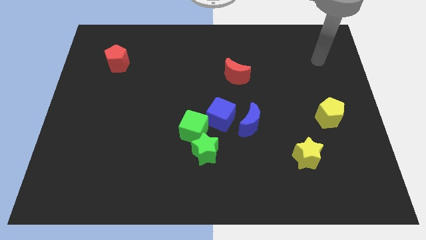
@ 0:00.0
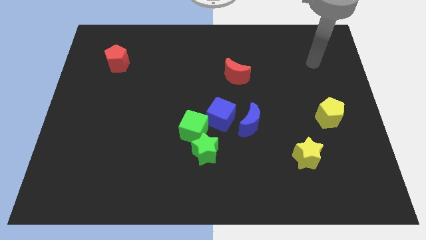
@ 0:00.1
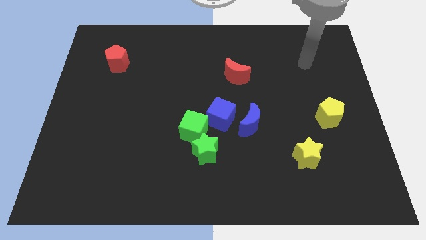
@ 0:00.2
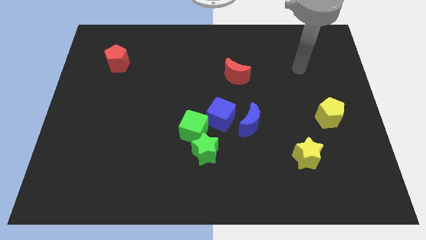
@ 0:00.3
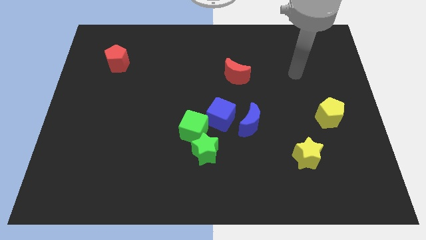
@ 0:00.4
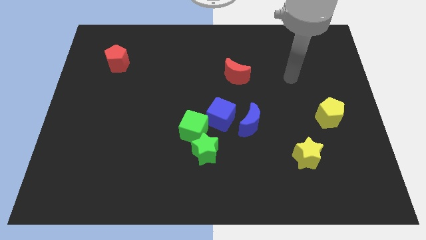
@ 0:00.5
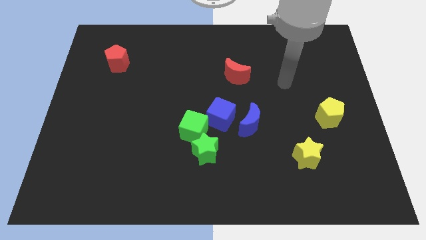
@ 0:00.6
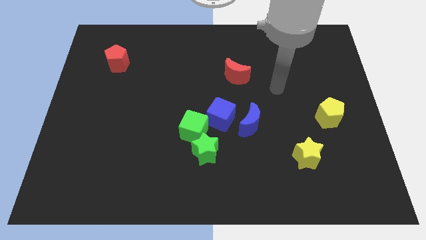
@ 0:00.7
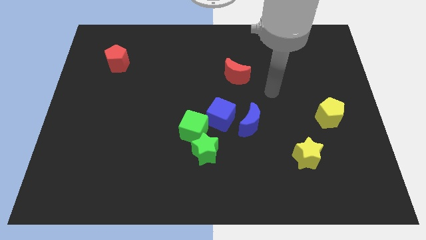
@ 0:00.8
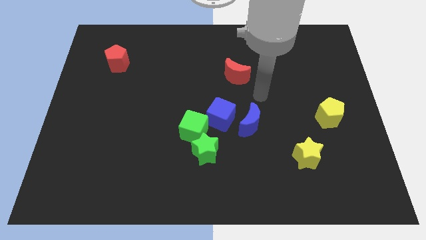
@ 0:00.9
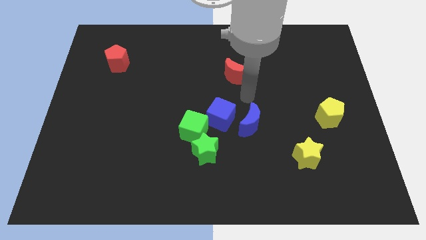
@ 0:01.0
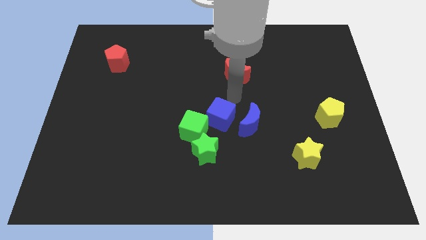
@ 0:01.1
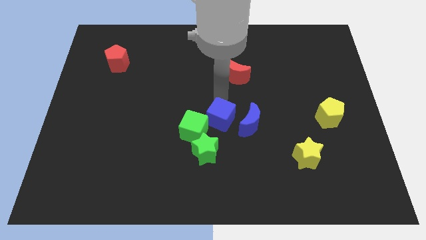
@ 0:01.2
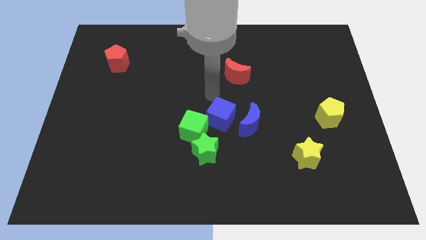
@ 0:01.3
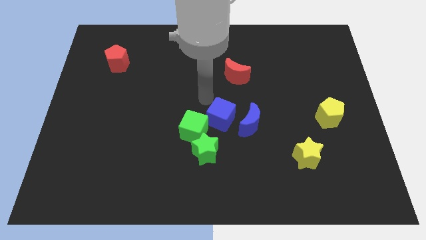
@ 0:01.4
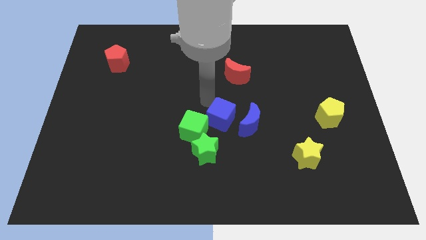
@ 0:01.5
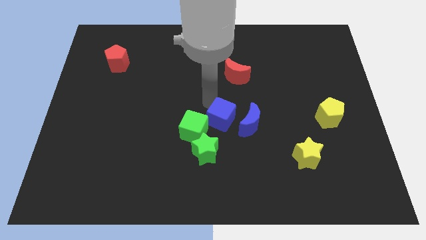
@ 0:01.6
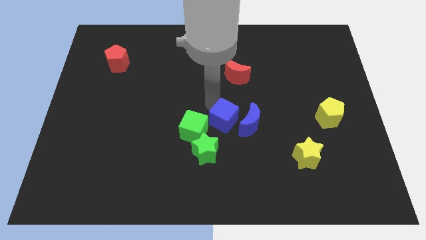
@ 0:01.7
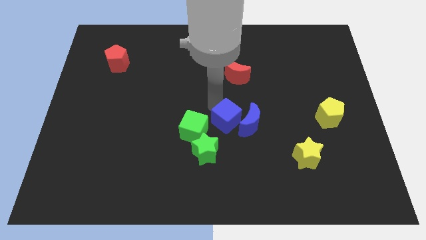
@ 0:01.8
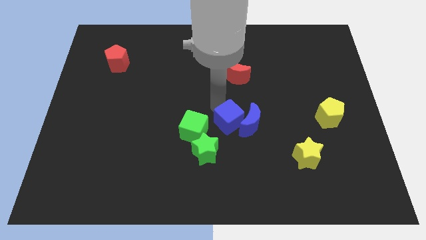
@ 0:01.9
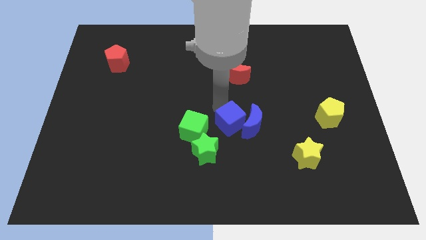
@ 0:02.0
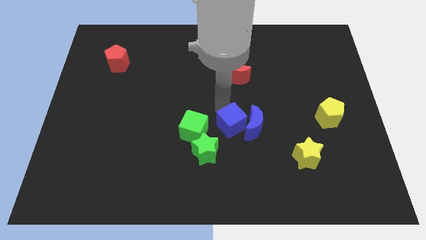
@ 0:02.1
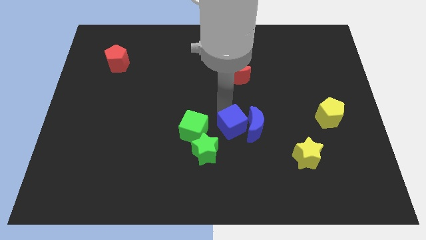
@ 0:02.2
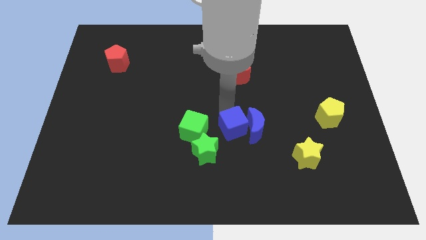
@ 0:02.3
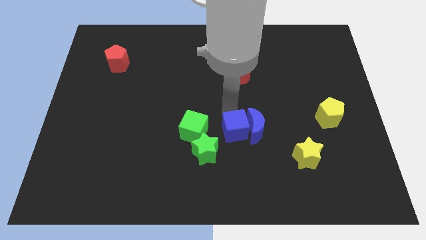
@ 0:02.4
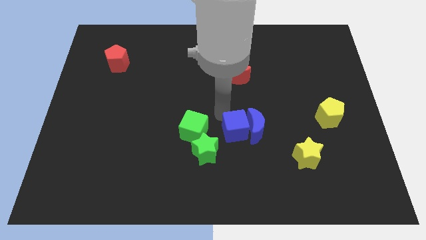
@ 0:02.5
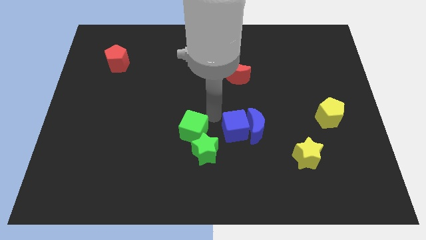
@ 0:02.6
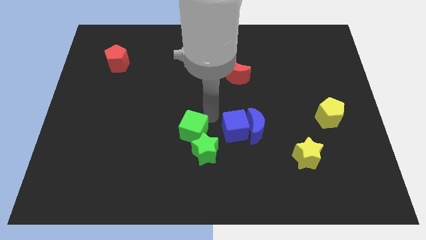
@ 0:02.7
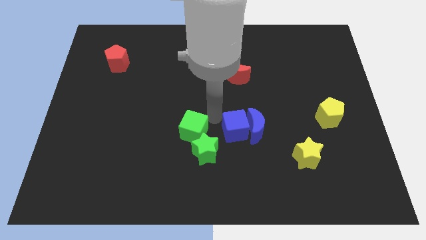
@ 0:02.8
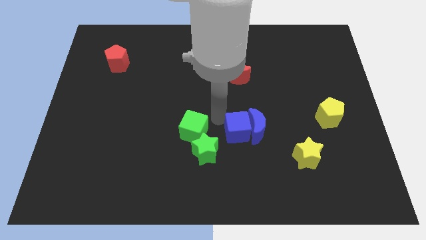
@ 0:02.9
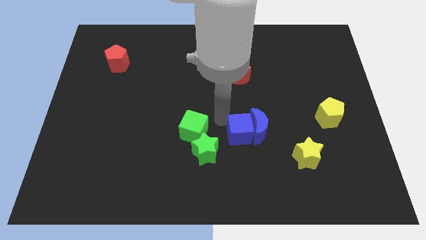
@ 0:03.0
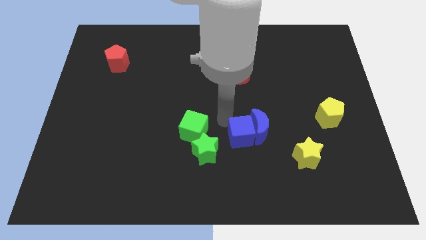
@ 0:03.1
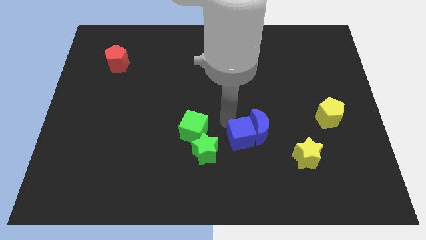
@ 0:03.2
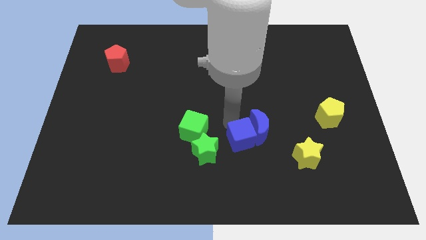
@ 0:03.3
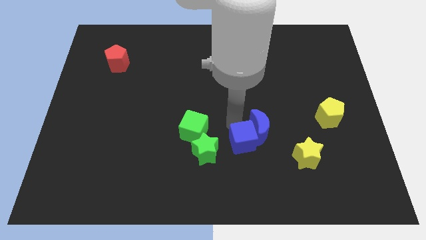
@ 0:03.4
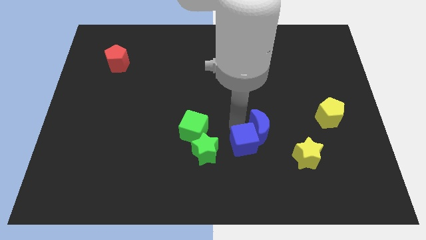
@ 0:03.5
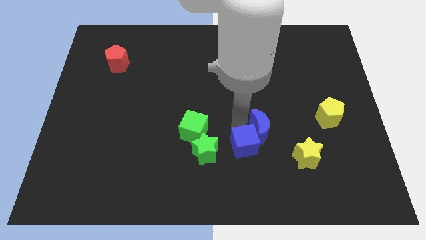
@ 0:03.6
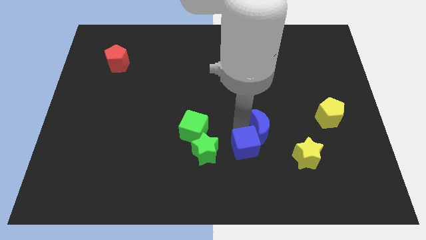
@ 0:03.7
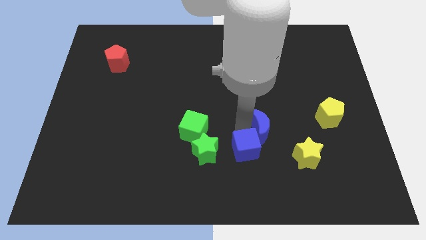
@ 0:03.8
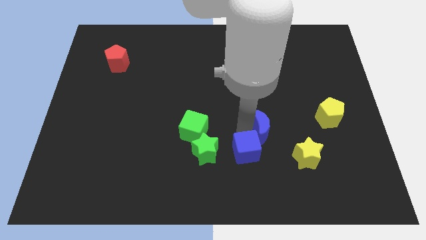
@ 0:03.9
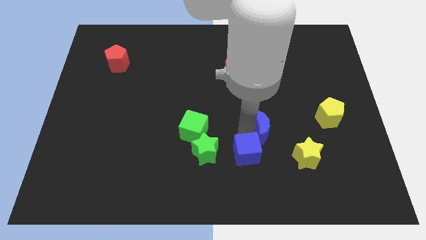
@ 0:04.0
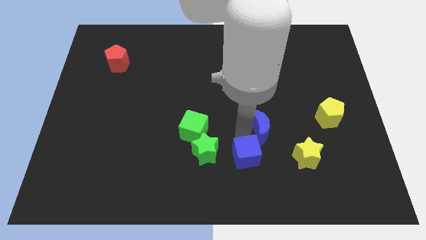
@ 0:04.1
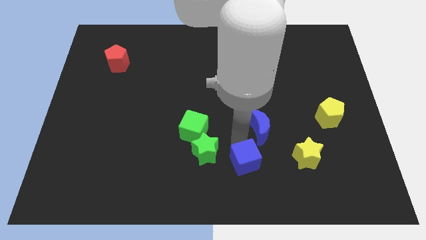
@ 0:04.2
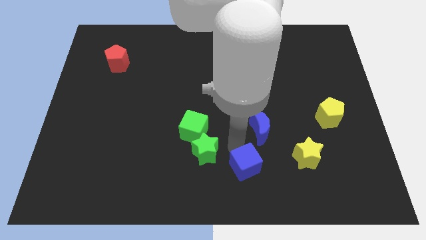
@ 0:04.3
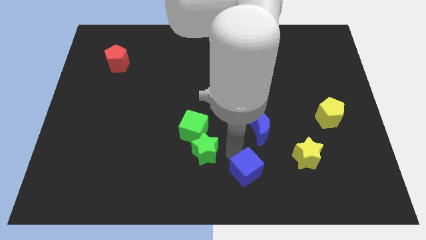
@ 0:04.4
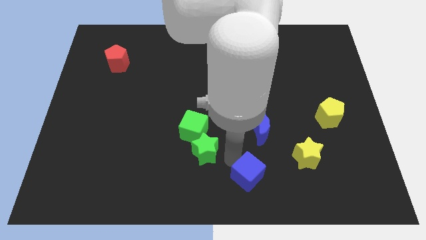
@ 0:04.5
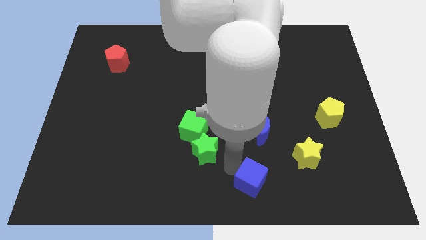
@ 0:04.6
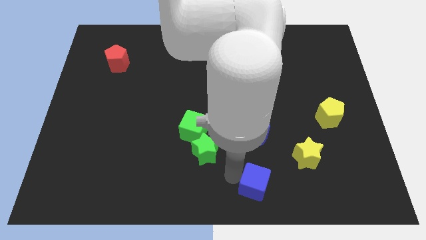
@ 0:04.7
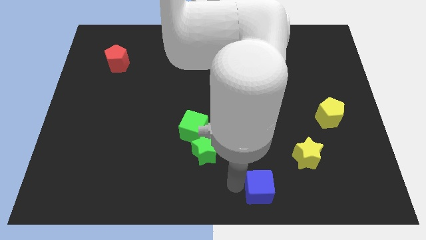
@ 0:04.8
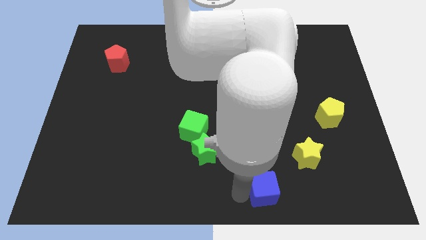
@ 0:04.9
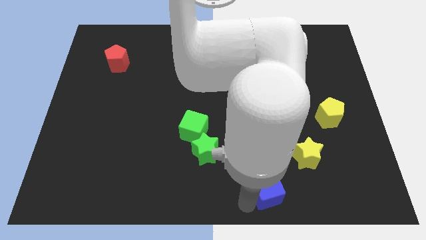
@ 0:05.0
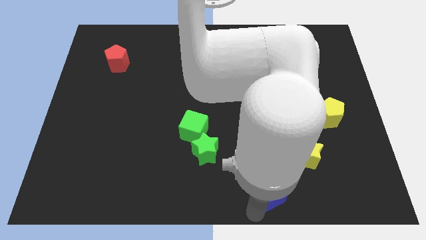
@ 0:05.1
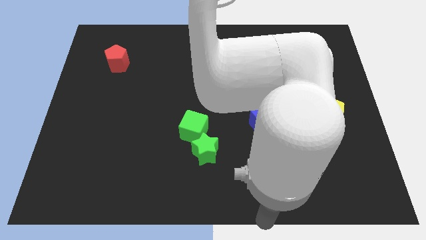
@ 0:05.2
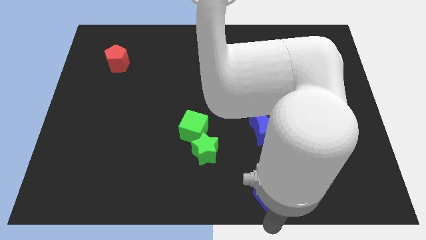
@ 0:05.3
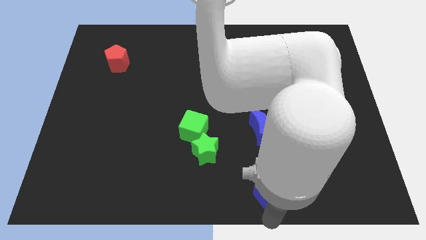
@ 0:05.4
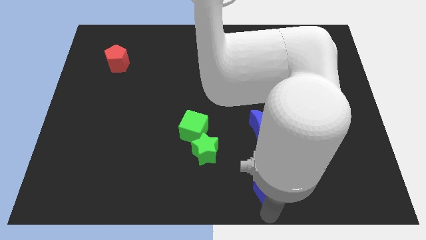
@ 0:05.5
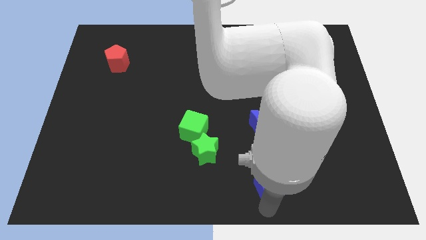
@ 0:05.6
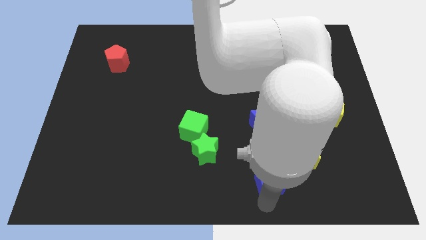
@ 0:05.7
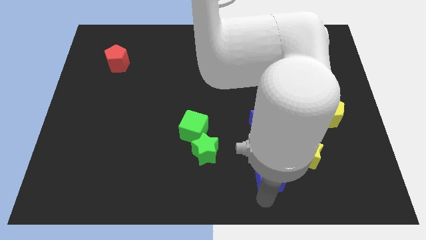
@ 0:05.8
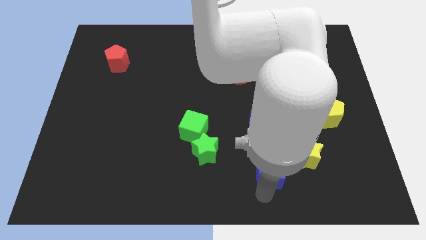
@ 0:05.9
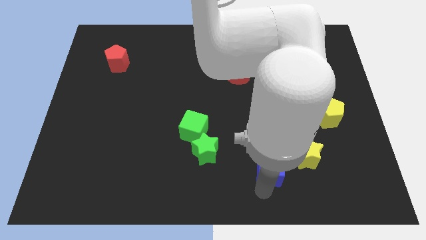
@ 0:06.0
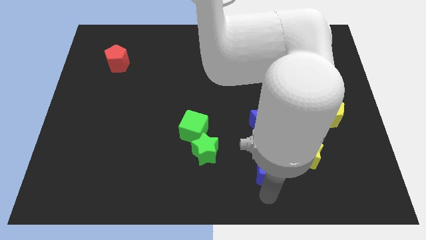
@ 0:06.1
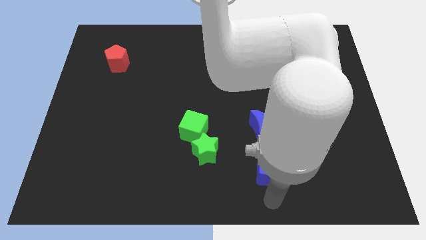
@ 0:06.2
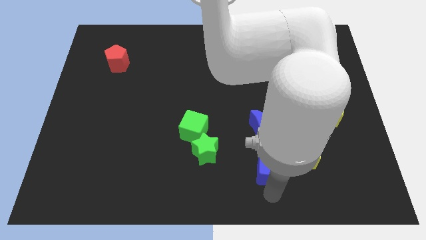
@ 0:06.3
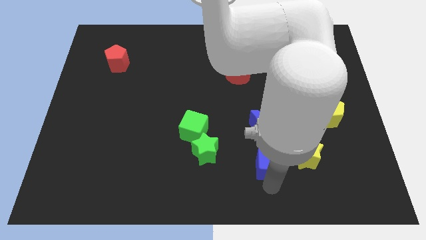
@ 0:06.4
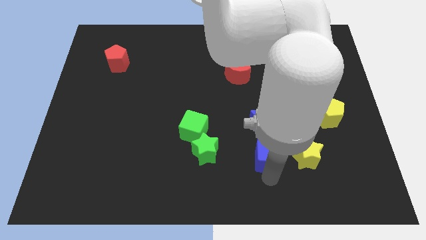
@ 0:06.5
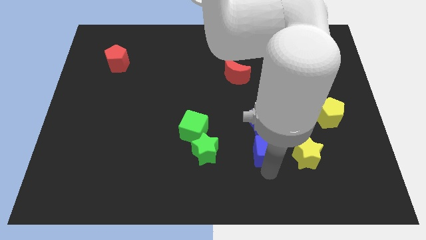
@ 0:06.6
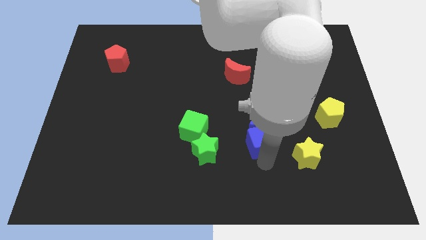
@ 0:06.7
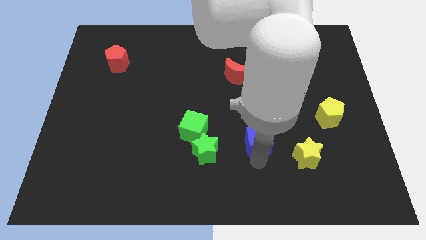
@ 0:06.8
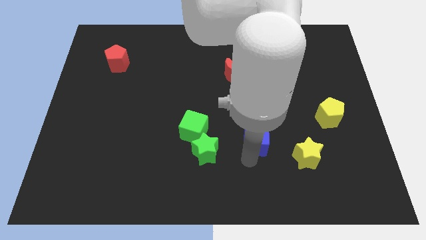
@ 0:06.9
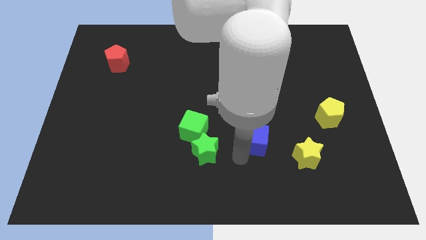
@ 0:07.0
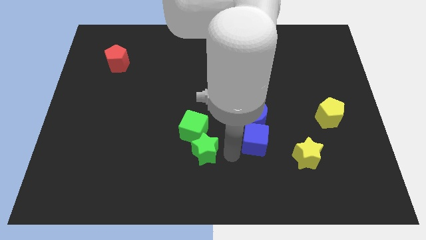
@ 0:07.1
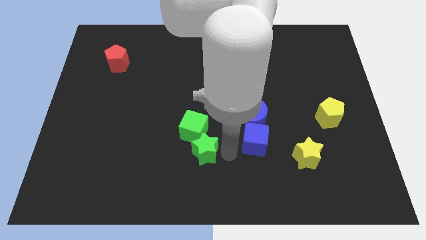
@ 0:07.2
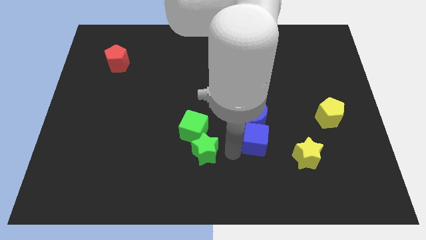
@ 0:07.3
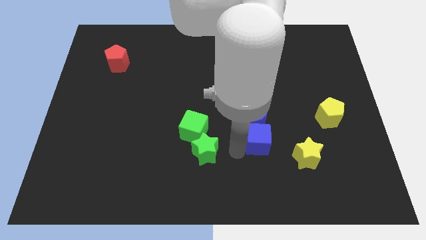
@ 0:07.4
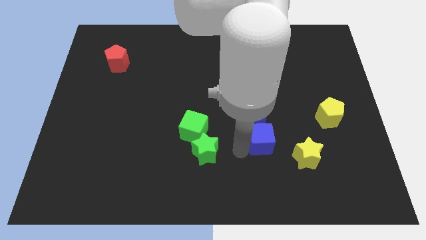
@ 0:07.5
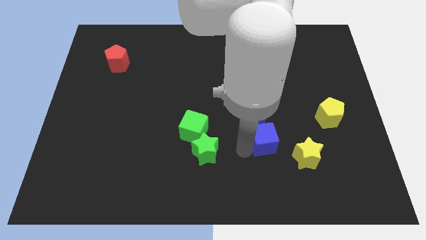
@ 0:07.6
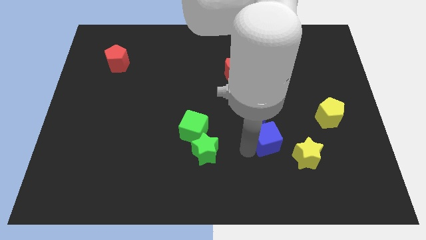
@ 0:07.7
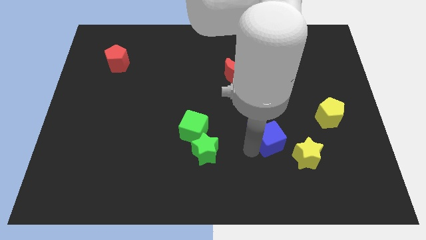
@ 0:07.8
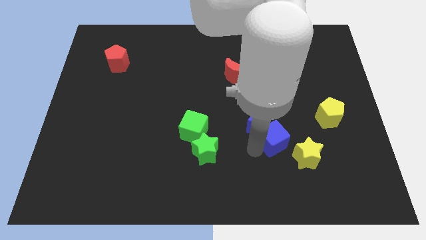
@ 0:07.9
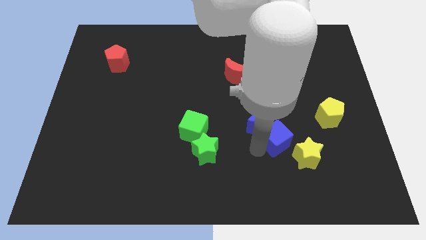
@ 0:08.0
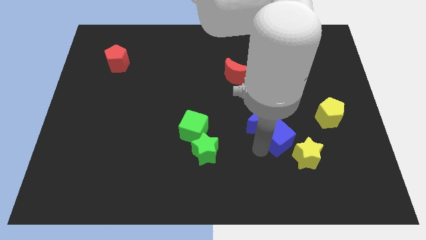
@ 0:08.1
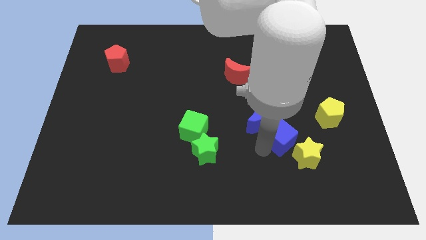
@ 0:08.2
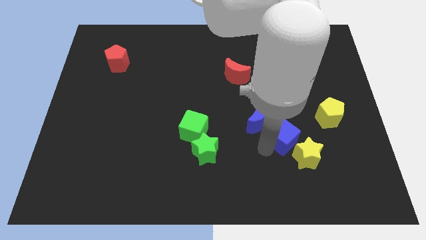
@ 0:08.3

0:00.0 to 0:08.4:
put the blue cube to the top of the yellow star
